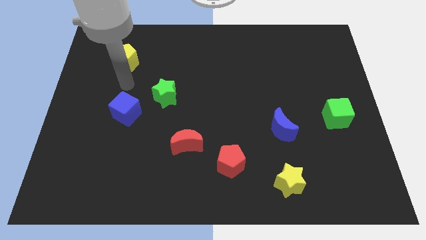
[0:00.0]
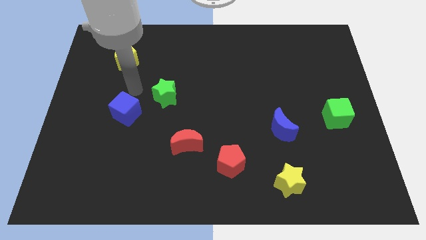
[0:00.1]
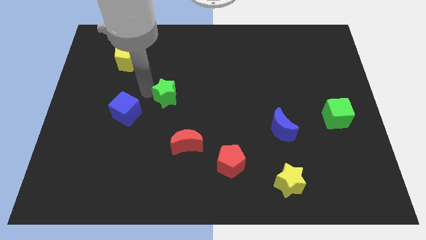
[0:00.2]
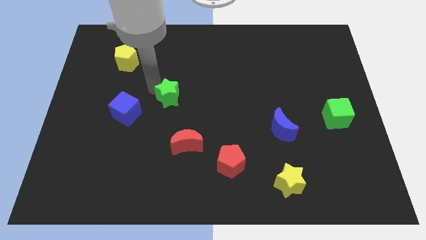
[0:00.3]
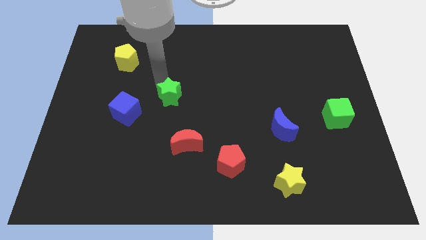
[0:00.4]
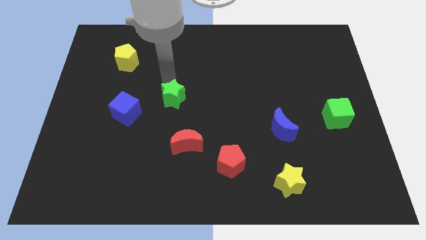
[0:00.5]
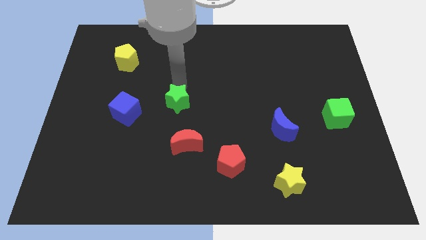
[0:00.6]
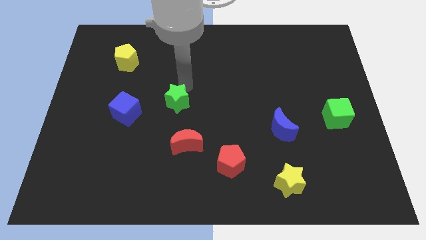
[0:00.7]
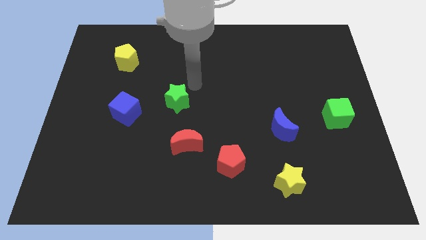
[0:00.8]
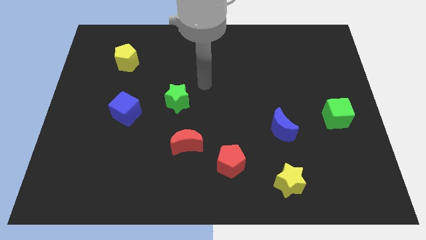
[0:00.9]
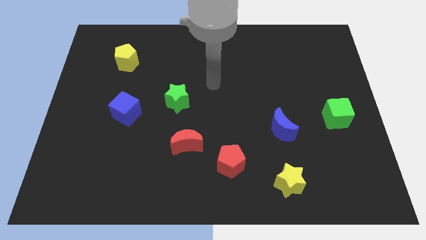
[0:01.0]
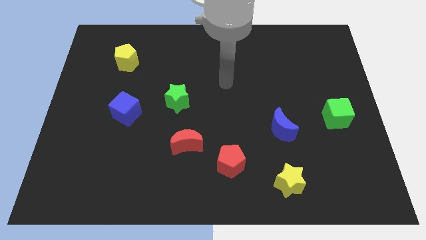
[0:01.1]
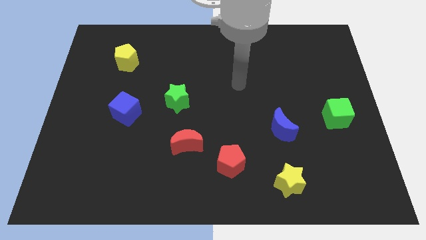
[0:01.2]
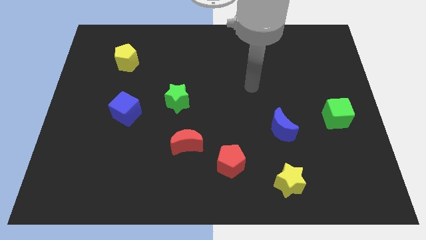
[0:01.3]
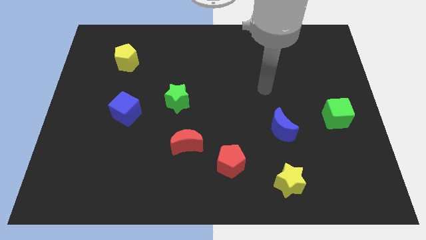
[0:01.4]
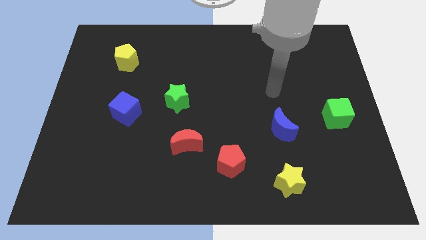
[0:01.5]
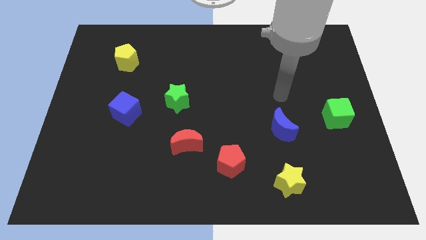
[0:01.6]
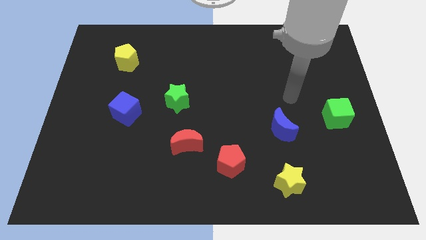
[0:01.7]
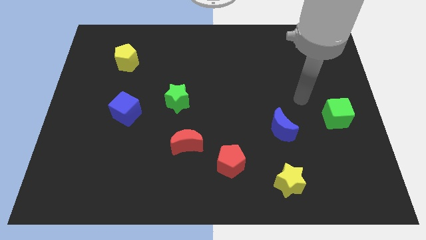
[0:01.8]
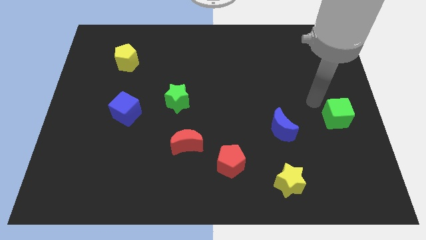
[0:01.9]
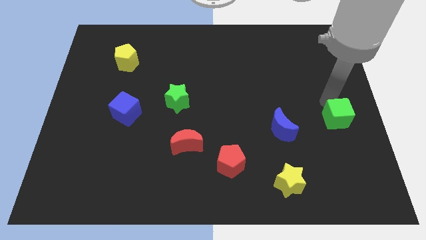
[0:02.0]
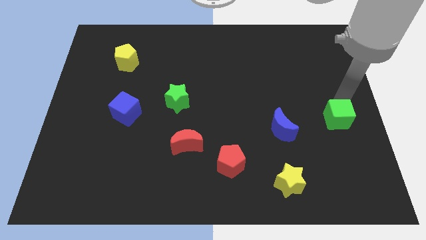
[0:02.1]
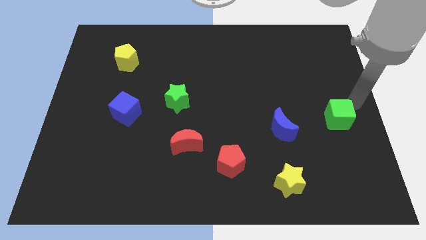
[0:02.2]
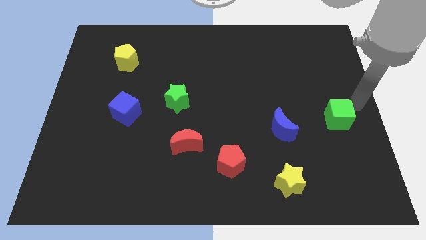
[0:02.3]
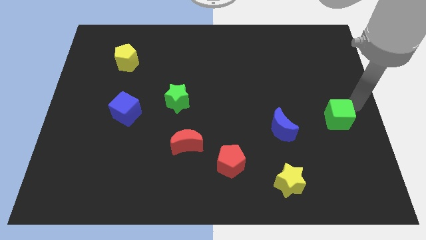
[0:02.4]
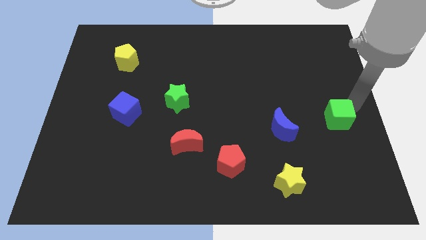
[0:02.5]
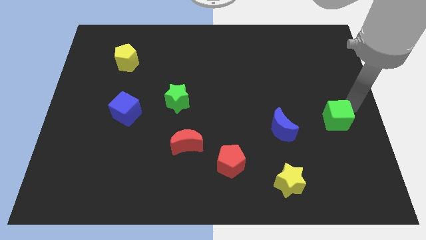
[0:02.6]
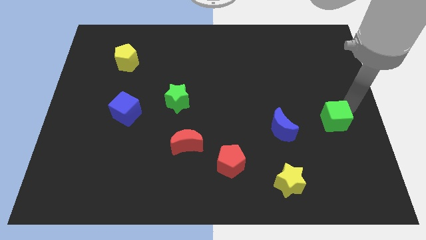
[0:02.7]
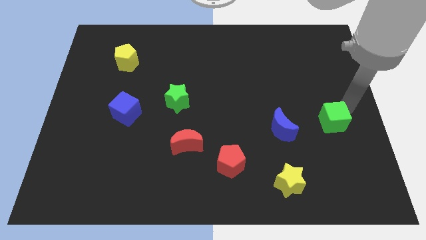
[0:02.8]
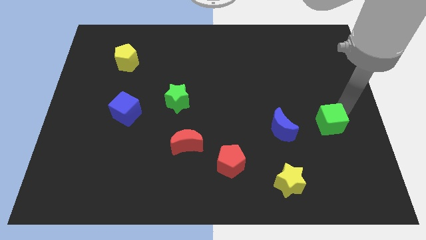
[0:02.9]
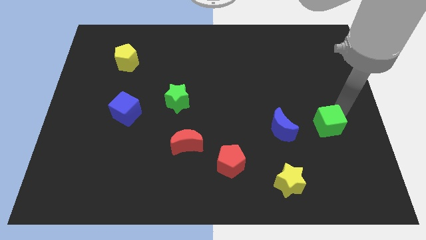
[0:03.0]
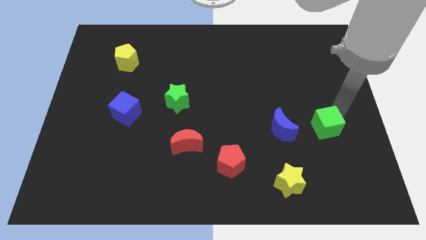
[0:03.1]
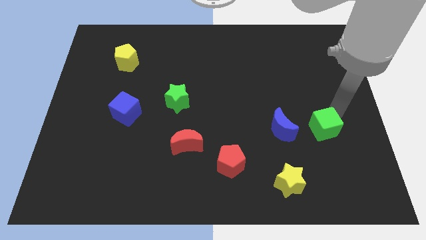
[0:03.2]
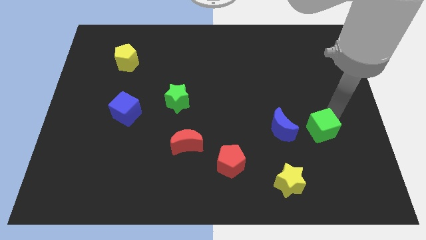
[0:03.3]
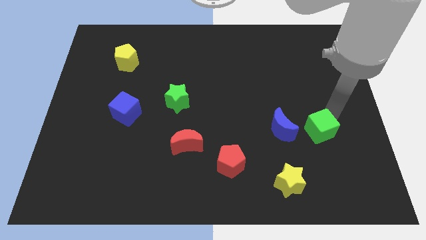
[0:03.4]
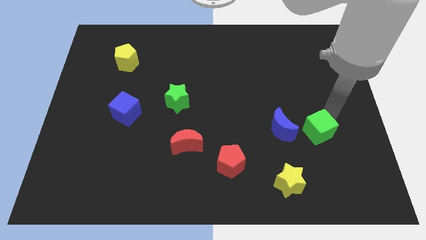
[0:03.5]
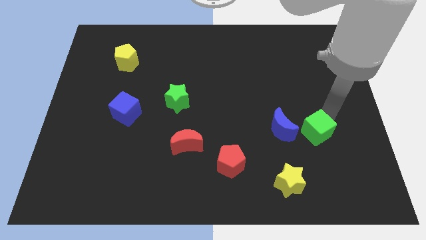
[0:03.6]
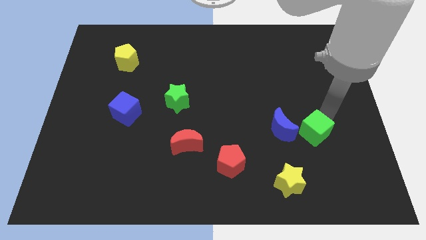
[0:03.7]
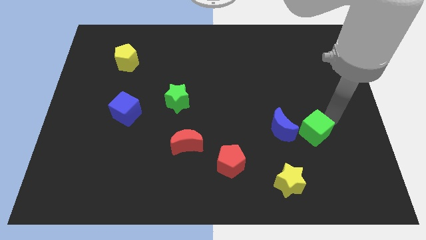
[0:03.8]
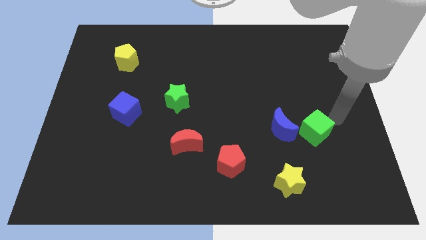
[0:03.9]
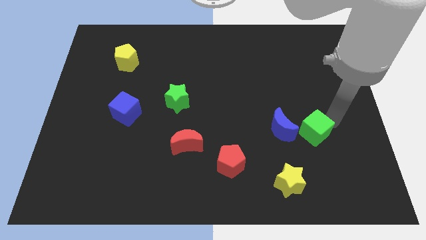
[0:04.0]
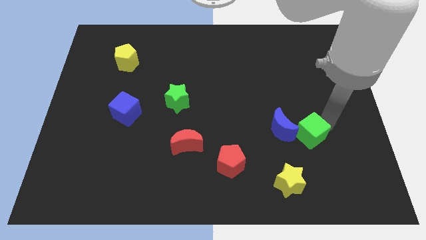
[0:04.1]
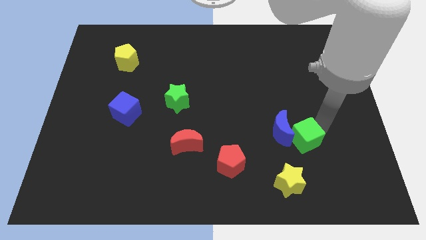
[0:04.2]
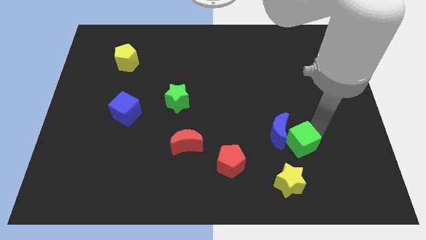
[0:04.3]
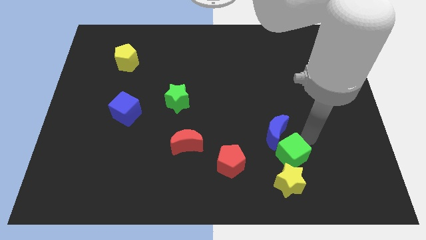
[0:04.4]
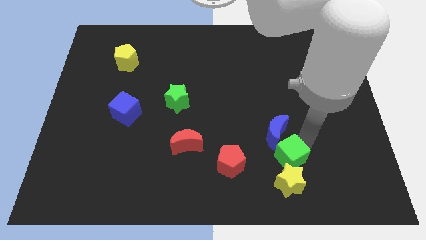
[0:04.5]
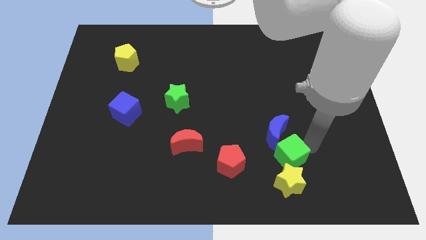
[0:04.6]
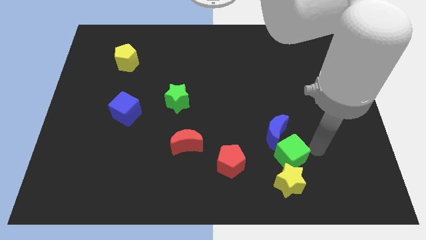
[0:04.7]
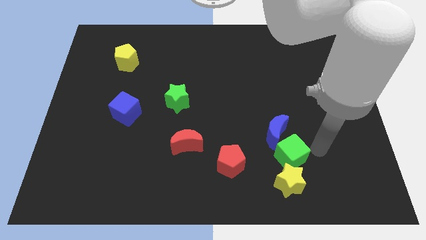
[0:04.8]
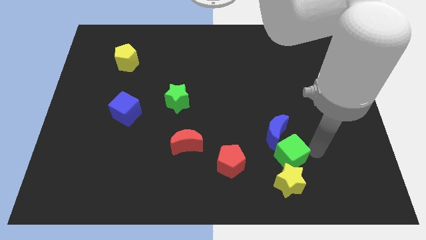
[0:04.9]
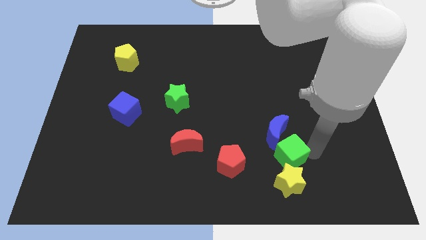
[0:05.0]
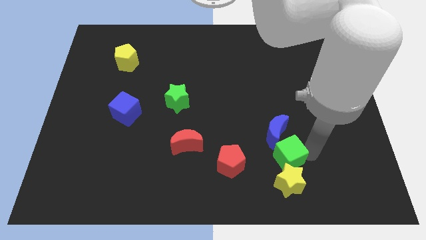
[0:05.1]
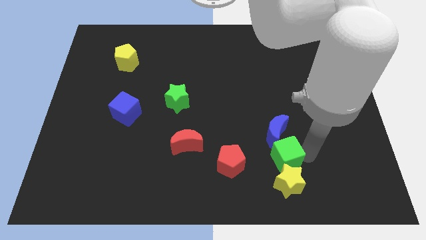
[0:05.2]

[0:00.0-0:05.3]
push the green cube to the top left of the yellow star

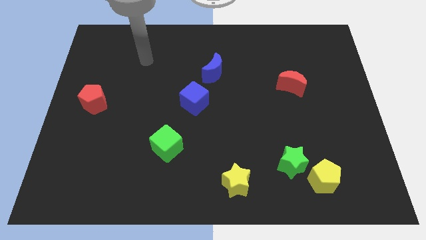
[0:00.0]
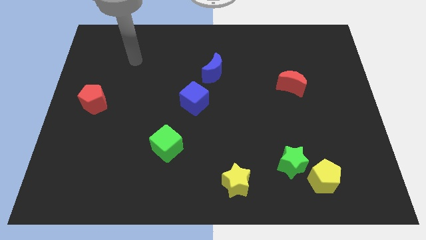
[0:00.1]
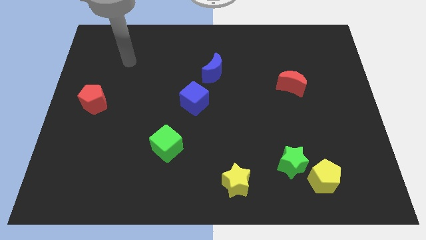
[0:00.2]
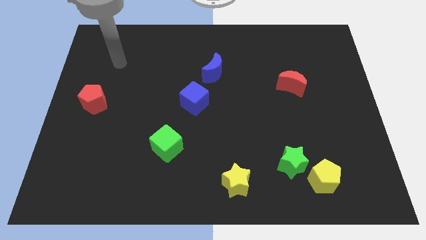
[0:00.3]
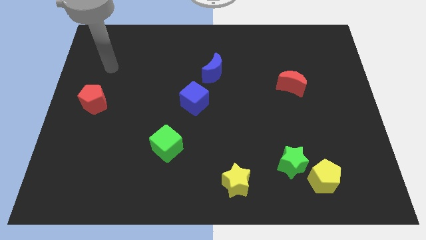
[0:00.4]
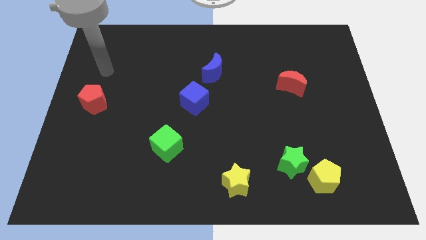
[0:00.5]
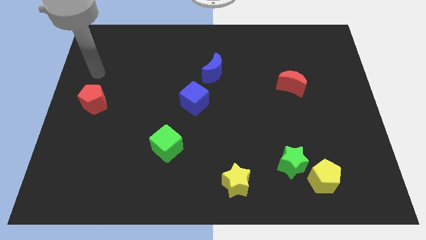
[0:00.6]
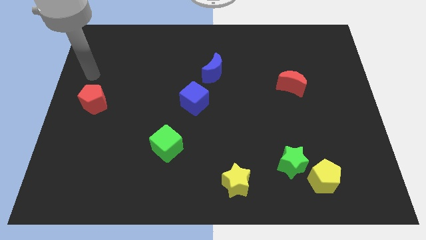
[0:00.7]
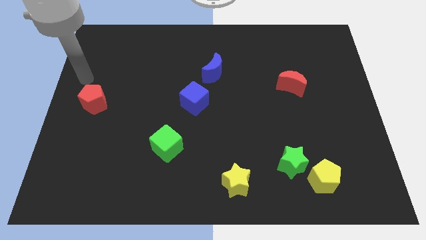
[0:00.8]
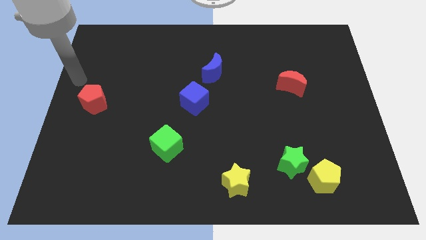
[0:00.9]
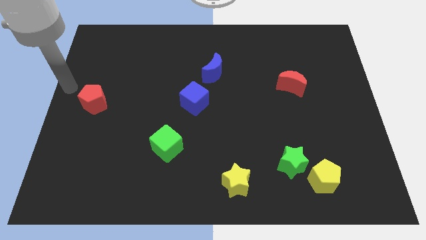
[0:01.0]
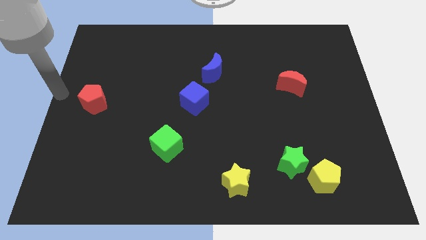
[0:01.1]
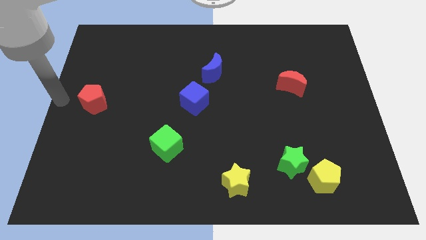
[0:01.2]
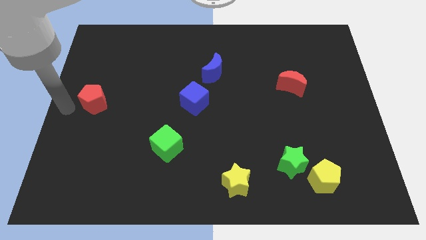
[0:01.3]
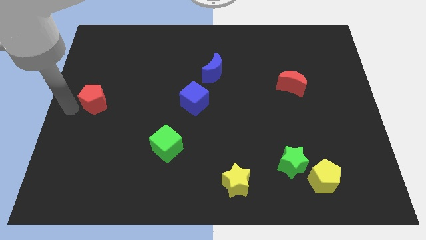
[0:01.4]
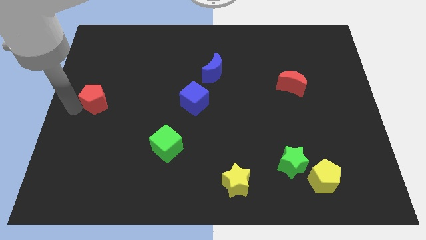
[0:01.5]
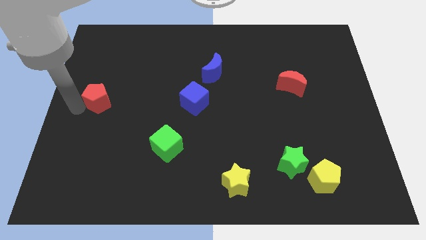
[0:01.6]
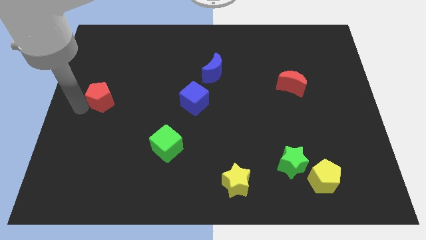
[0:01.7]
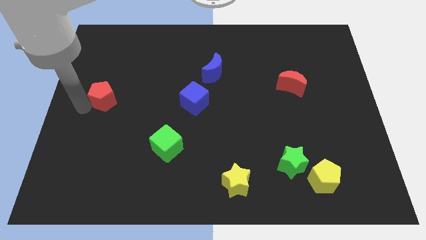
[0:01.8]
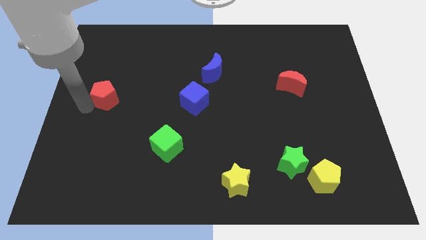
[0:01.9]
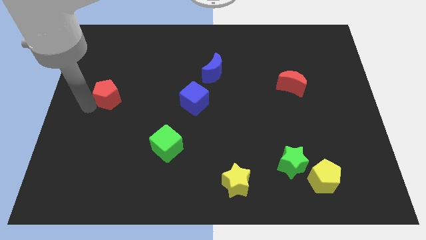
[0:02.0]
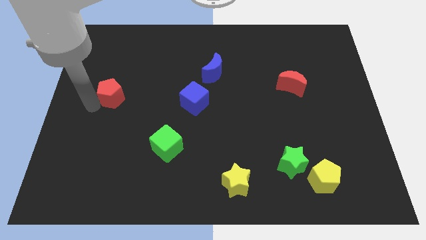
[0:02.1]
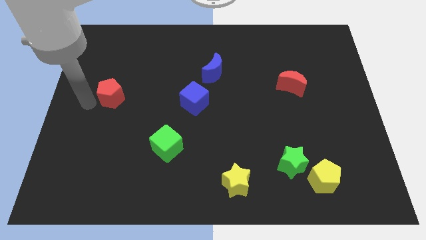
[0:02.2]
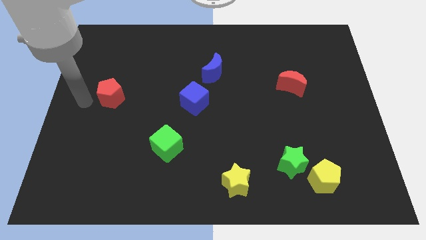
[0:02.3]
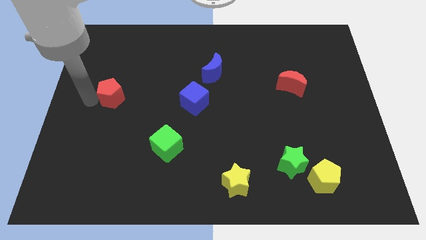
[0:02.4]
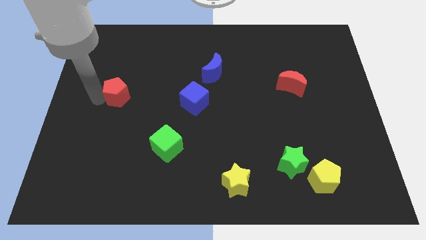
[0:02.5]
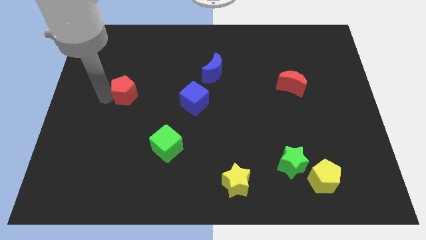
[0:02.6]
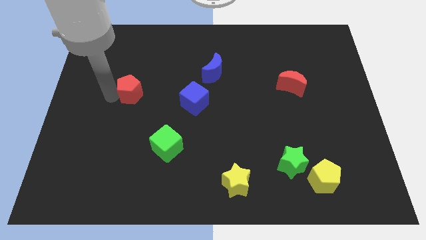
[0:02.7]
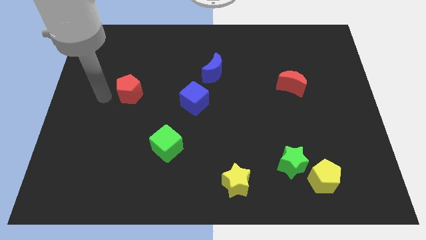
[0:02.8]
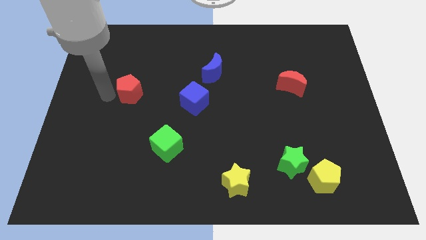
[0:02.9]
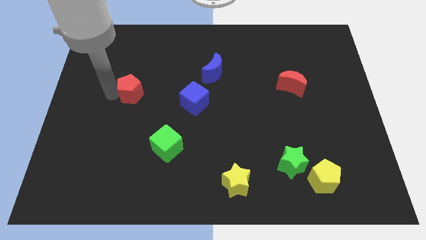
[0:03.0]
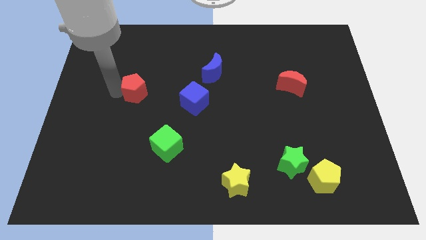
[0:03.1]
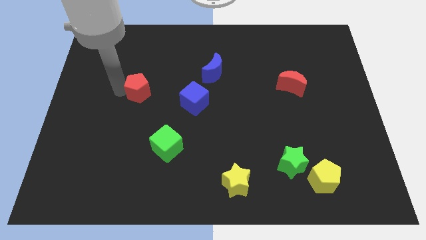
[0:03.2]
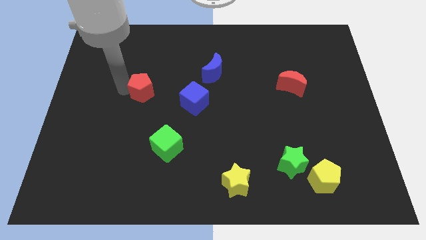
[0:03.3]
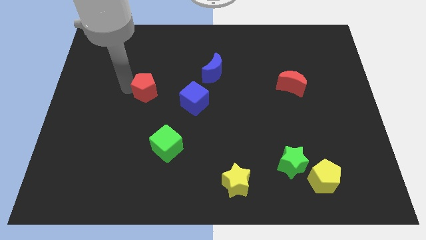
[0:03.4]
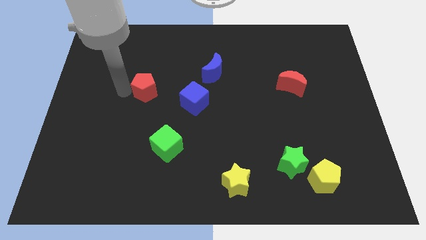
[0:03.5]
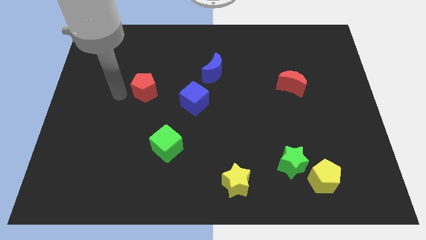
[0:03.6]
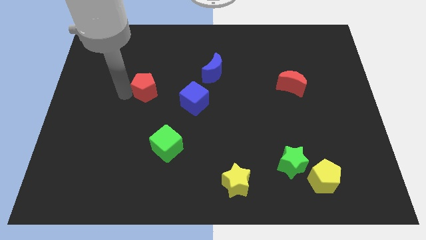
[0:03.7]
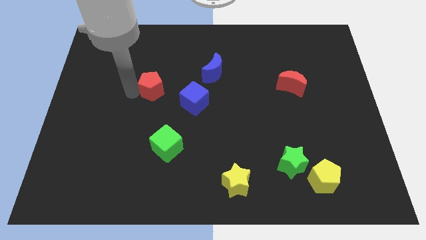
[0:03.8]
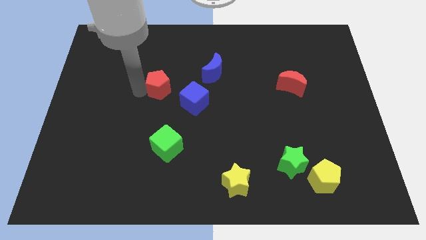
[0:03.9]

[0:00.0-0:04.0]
push the red pentagon to the top left of the blue cube
